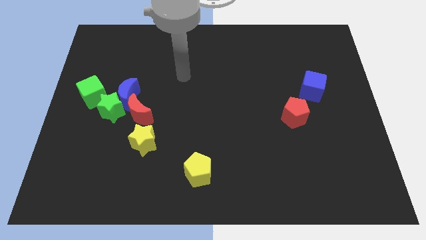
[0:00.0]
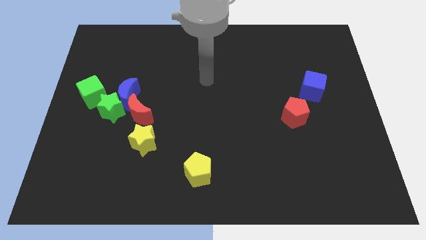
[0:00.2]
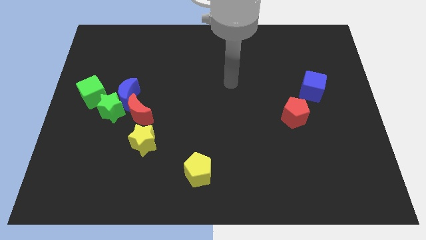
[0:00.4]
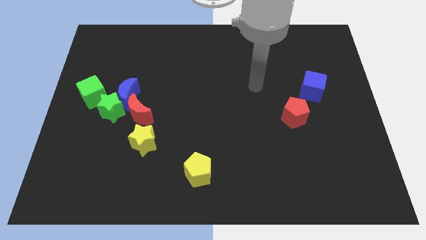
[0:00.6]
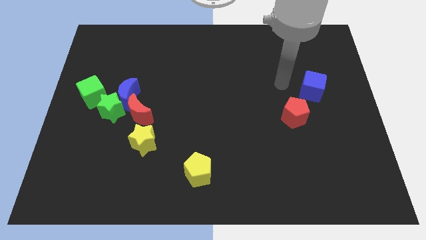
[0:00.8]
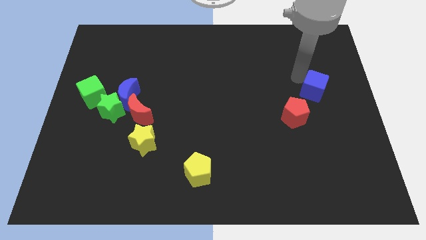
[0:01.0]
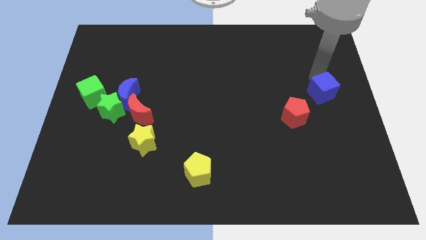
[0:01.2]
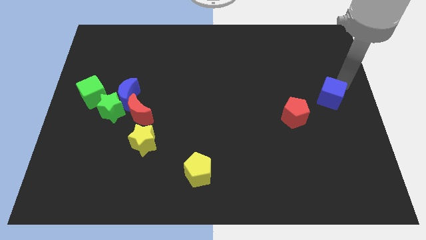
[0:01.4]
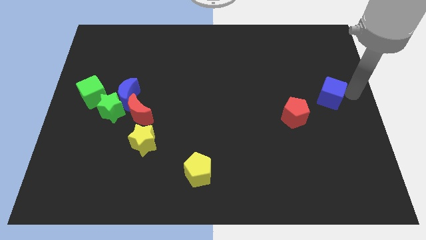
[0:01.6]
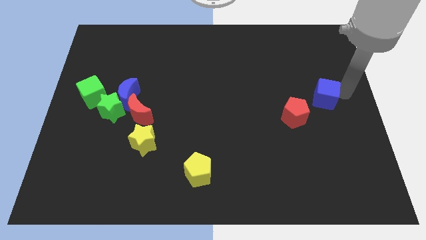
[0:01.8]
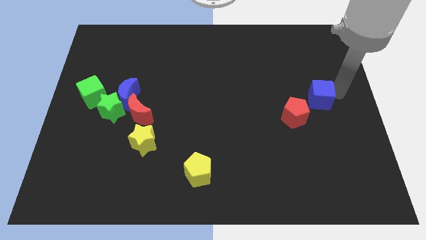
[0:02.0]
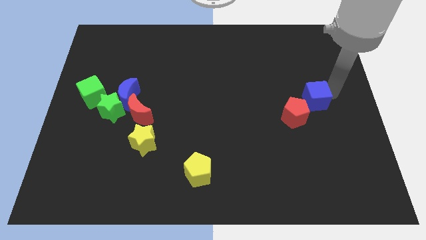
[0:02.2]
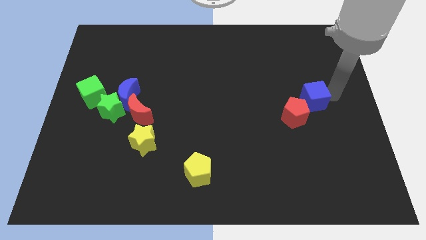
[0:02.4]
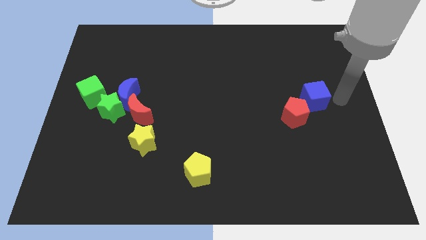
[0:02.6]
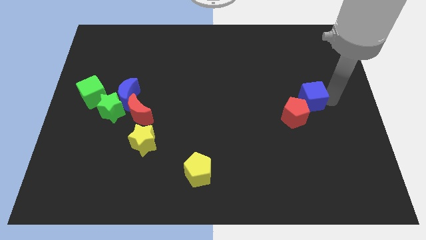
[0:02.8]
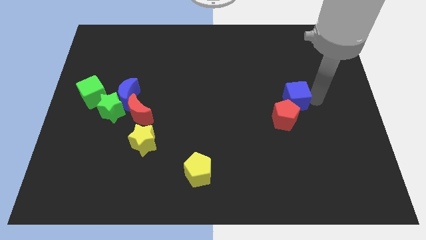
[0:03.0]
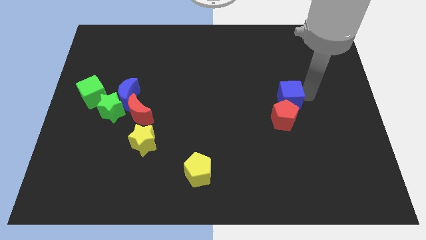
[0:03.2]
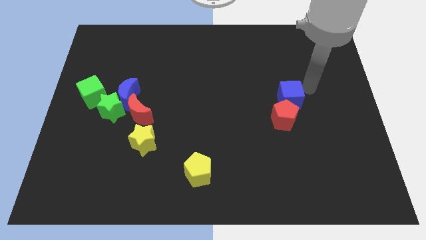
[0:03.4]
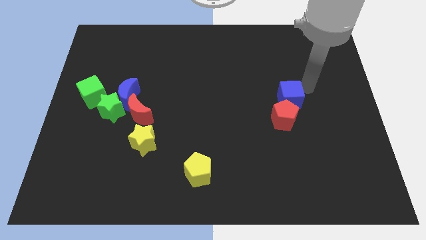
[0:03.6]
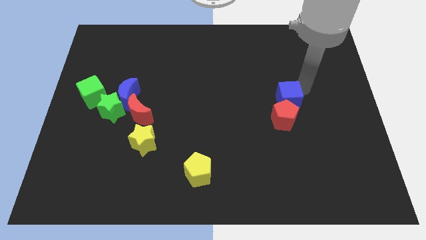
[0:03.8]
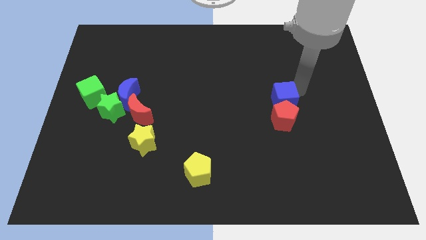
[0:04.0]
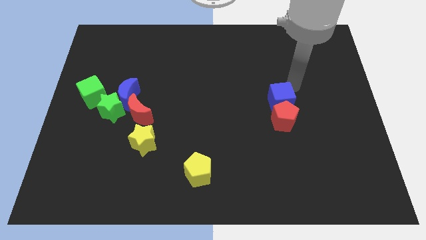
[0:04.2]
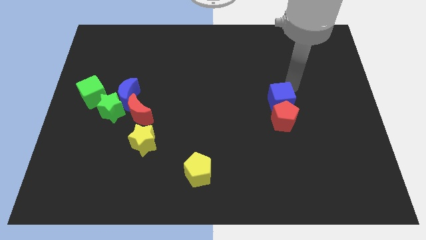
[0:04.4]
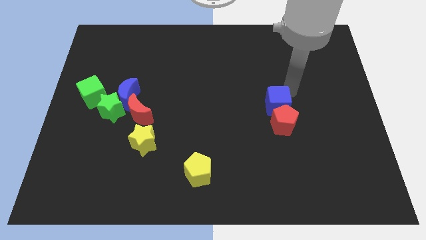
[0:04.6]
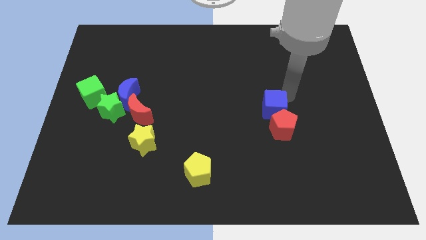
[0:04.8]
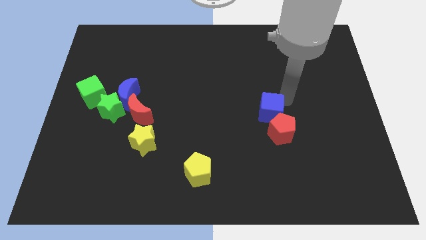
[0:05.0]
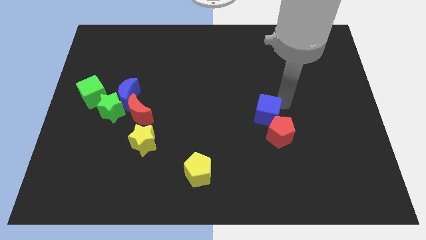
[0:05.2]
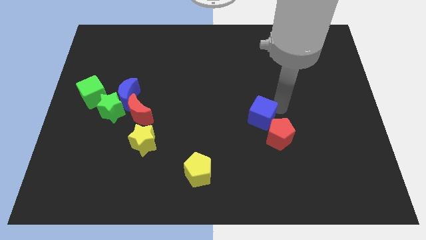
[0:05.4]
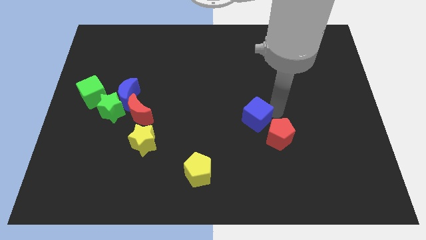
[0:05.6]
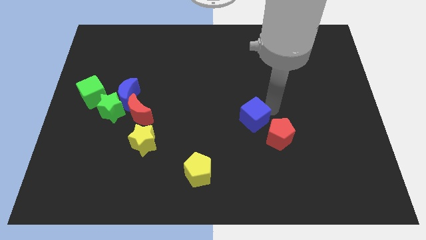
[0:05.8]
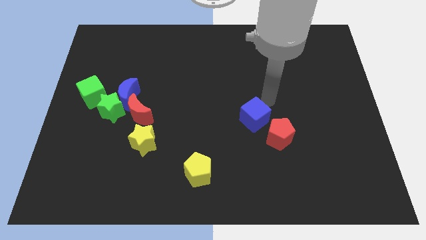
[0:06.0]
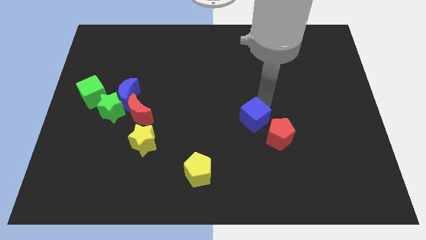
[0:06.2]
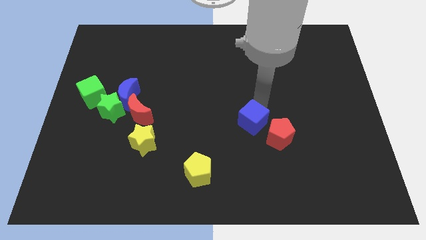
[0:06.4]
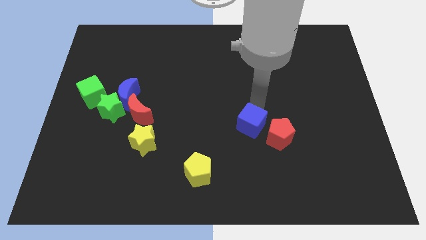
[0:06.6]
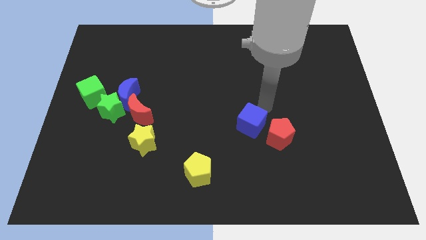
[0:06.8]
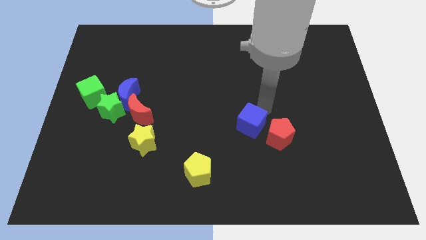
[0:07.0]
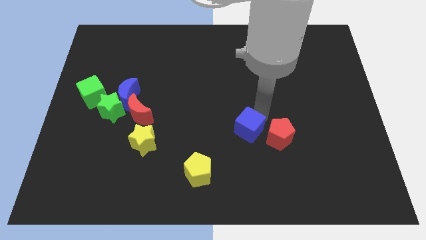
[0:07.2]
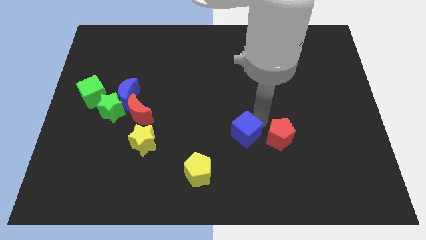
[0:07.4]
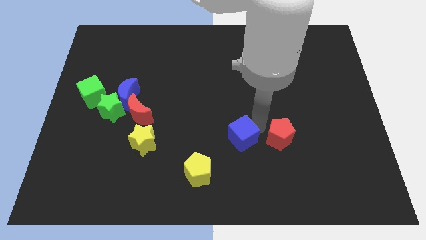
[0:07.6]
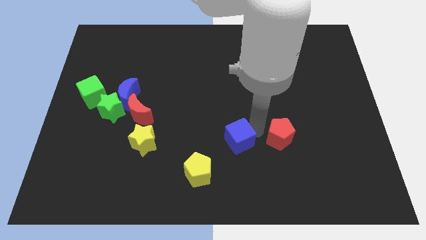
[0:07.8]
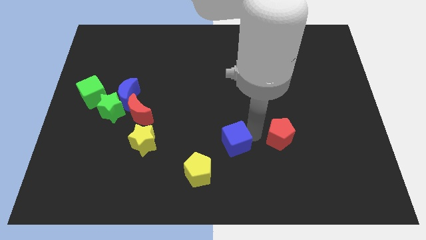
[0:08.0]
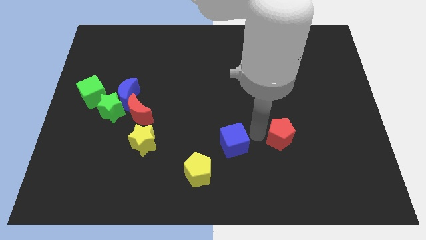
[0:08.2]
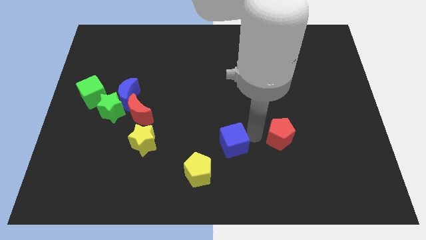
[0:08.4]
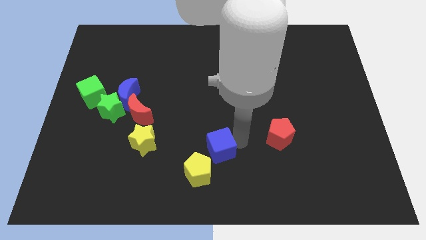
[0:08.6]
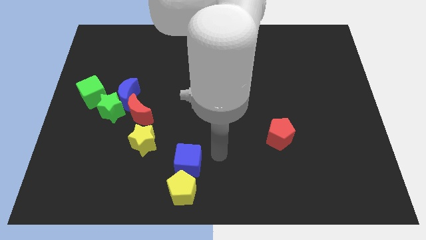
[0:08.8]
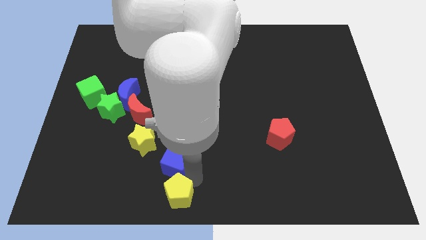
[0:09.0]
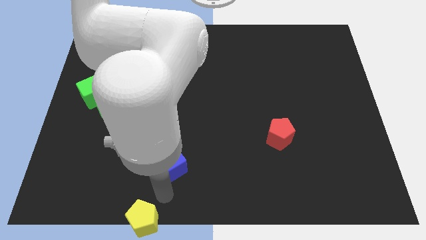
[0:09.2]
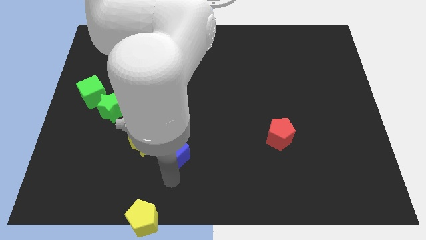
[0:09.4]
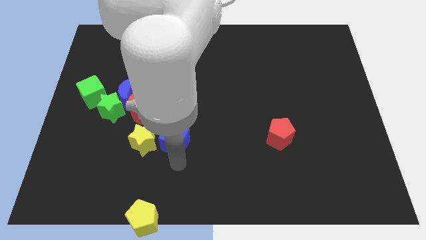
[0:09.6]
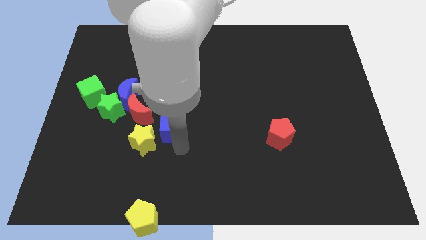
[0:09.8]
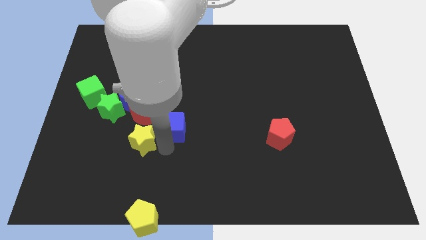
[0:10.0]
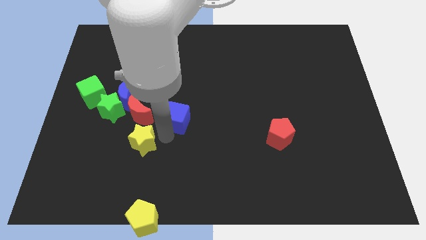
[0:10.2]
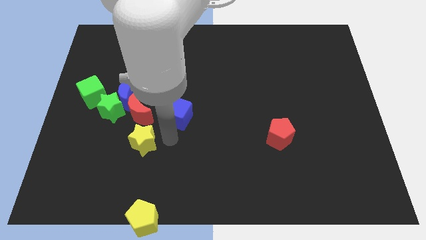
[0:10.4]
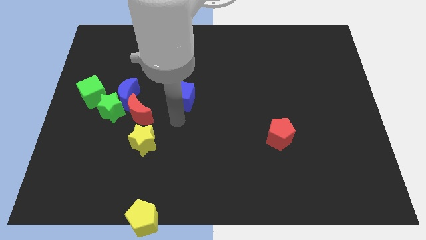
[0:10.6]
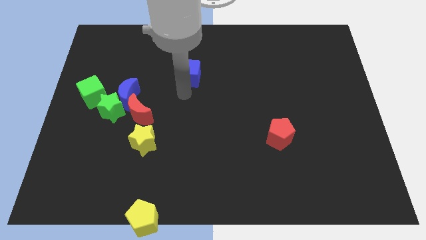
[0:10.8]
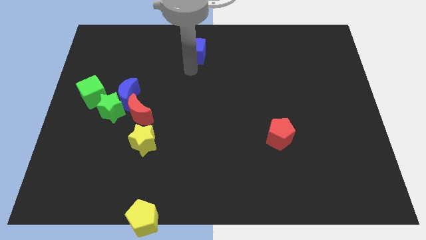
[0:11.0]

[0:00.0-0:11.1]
move the blue cube to the top side

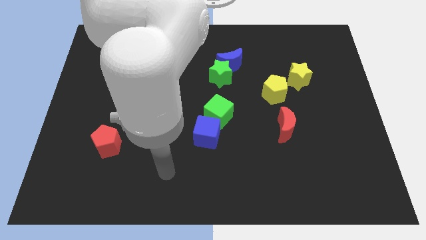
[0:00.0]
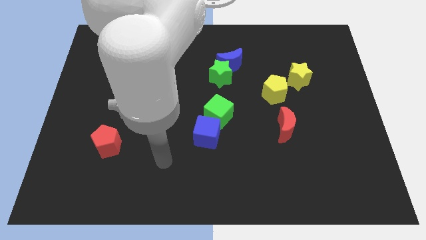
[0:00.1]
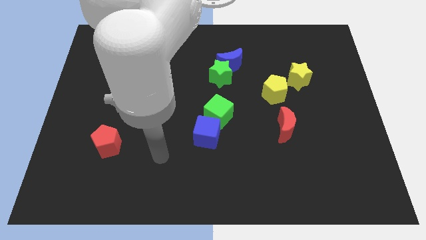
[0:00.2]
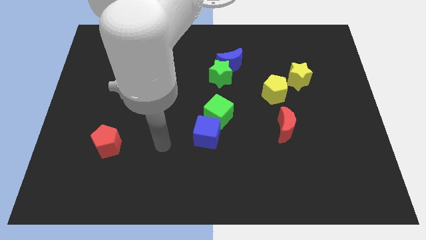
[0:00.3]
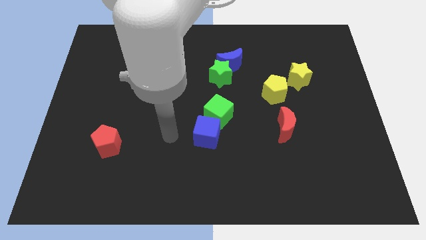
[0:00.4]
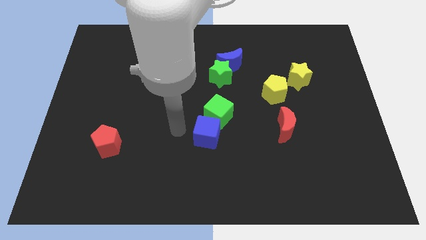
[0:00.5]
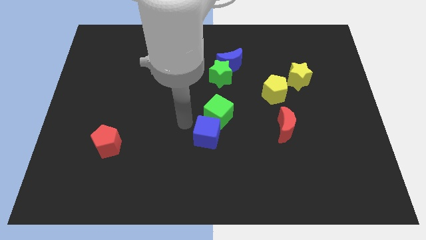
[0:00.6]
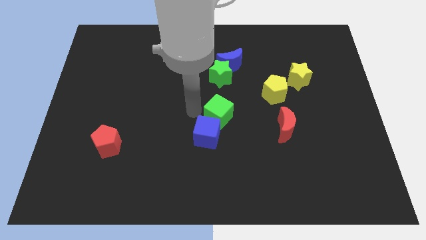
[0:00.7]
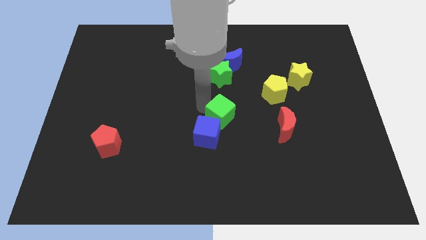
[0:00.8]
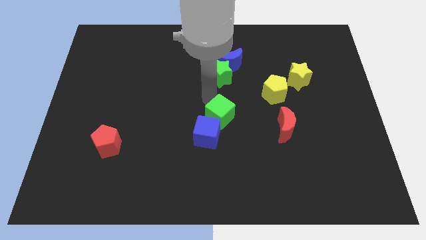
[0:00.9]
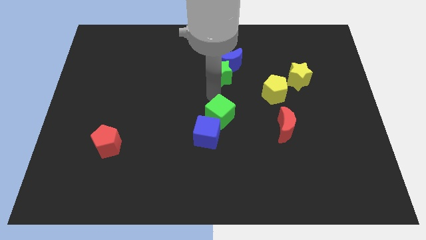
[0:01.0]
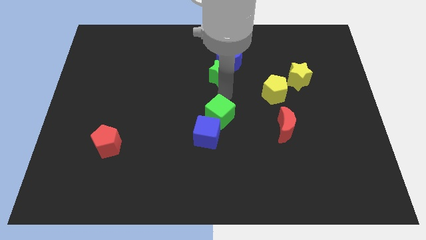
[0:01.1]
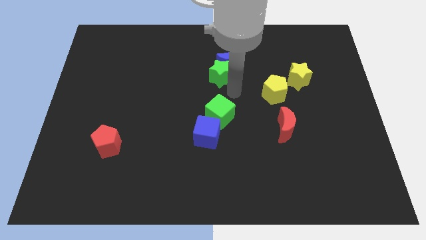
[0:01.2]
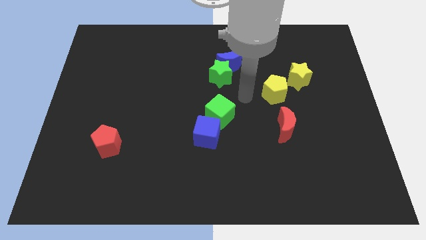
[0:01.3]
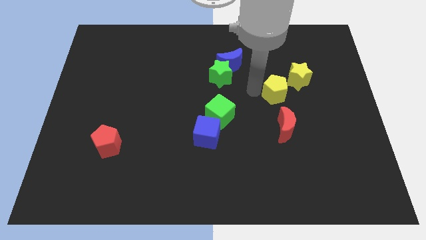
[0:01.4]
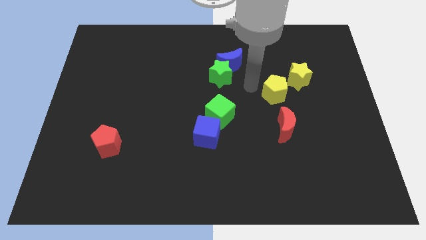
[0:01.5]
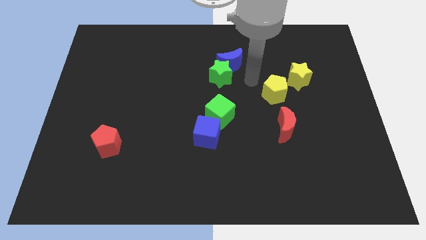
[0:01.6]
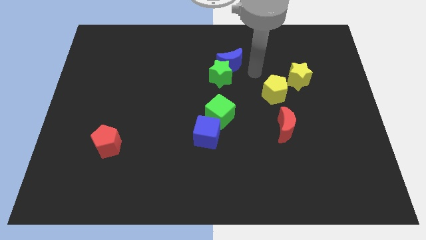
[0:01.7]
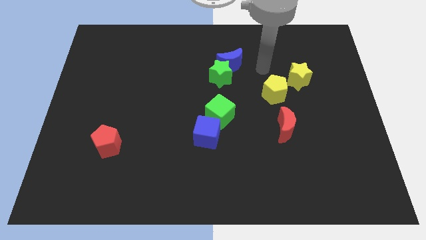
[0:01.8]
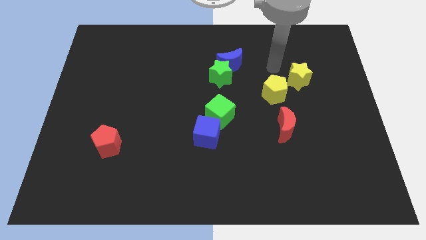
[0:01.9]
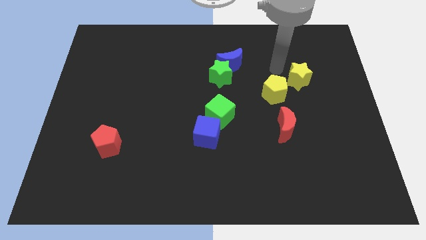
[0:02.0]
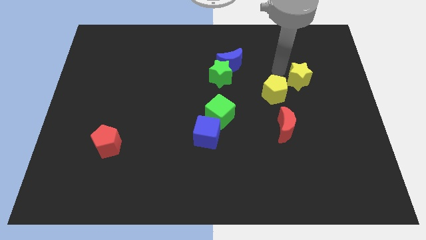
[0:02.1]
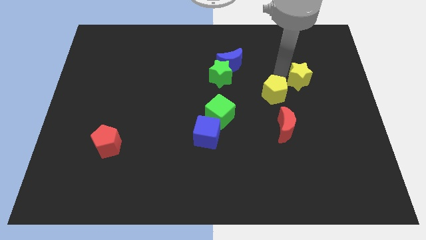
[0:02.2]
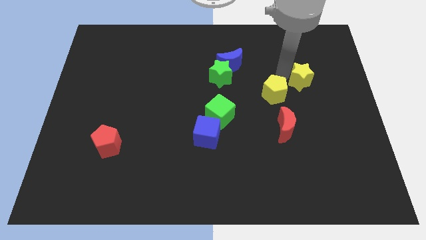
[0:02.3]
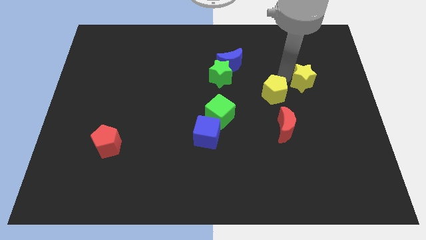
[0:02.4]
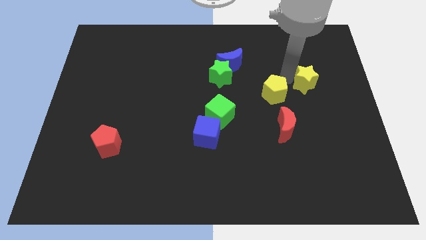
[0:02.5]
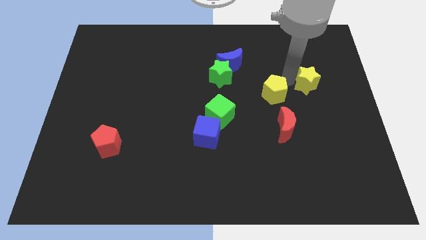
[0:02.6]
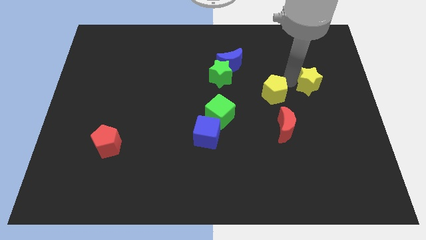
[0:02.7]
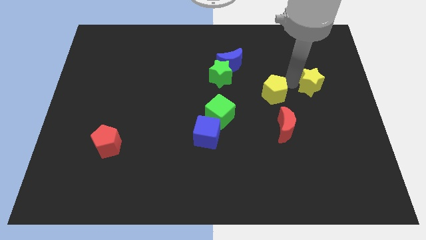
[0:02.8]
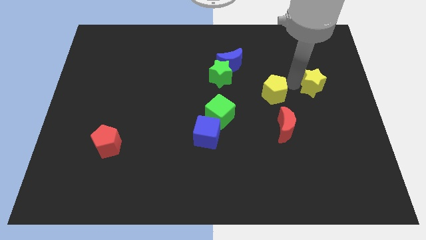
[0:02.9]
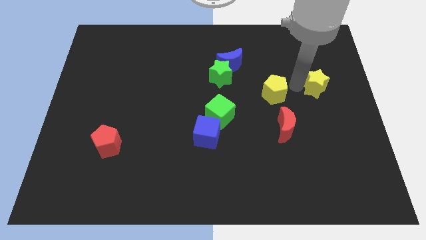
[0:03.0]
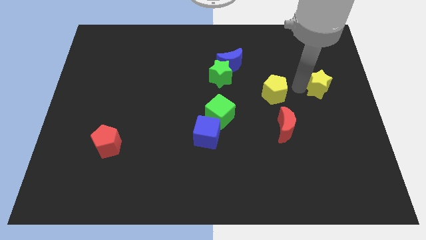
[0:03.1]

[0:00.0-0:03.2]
slide the yellow star to the right side of the board
